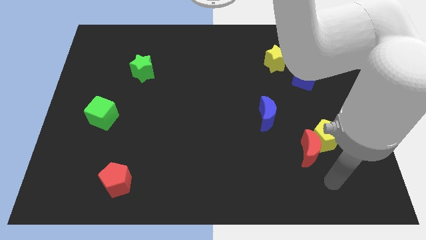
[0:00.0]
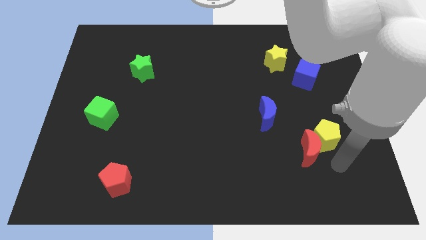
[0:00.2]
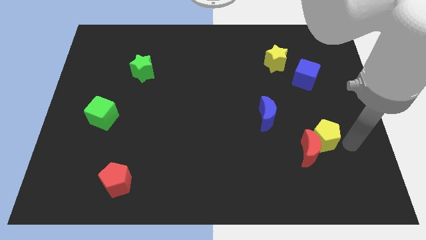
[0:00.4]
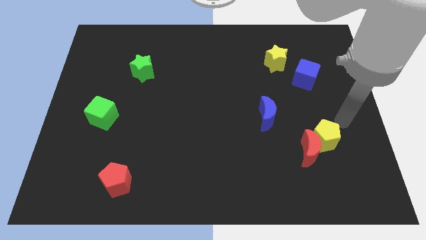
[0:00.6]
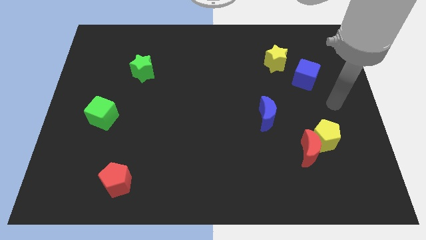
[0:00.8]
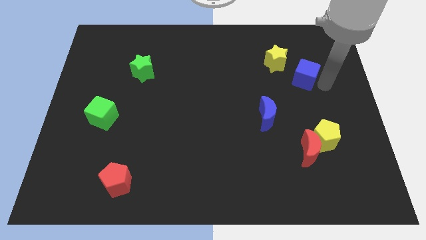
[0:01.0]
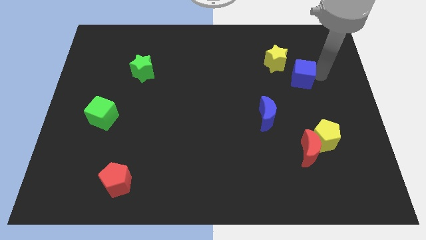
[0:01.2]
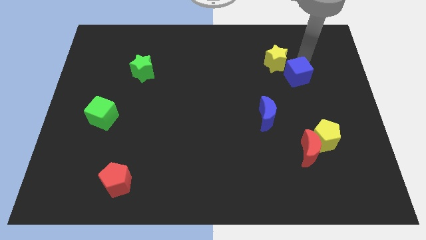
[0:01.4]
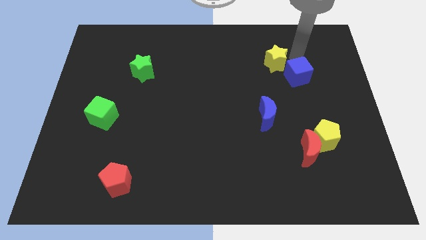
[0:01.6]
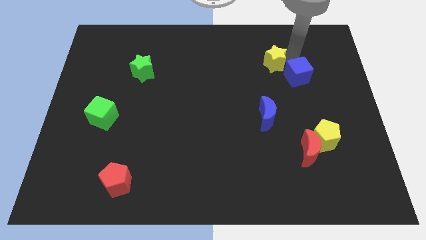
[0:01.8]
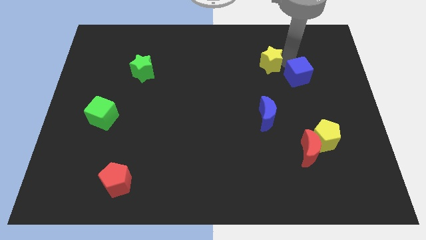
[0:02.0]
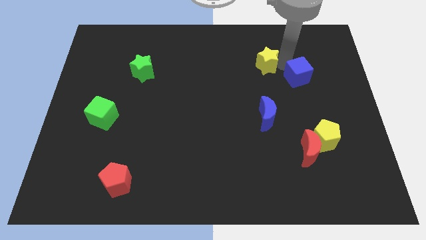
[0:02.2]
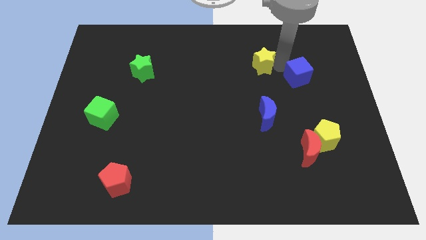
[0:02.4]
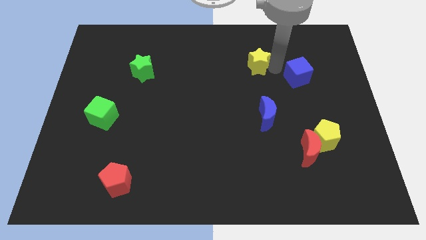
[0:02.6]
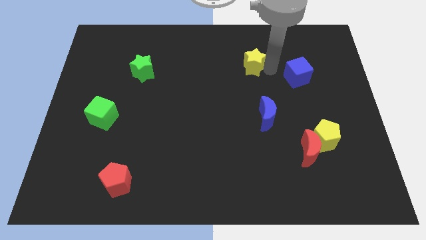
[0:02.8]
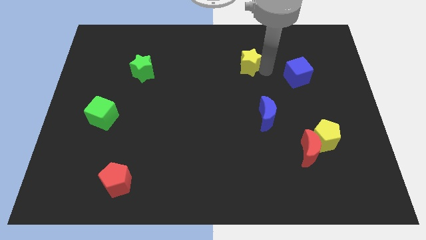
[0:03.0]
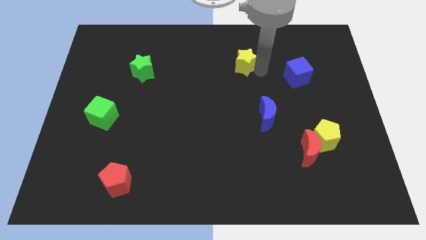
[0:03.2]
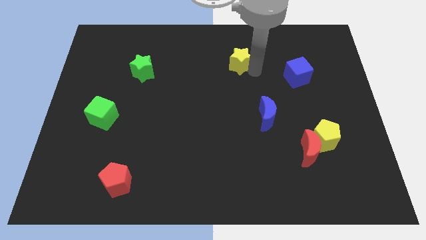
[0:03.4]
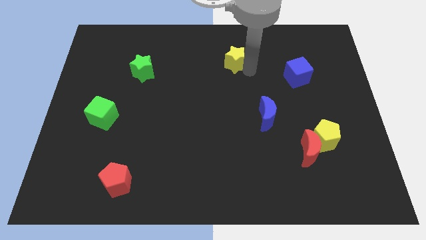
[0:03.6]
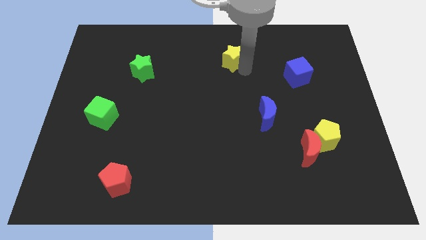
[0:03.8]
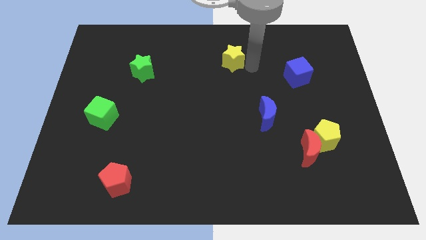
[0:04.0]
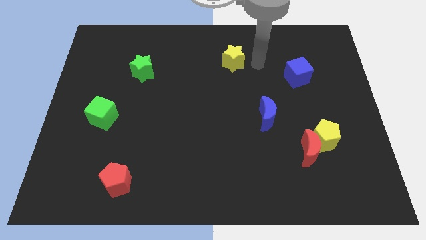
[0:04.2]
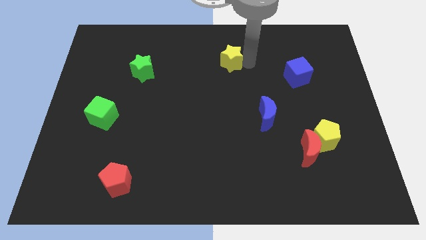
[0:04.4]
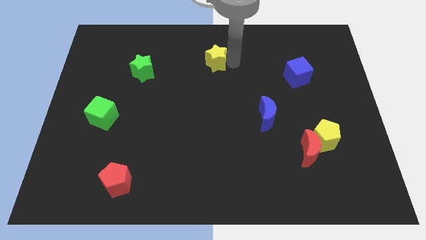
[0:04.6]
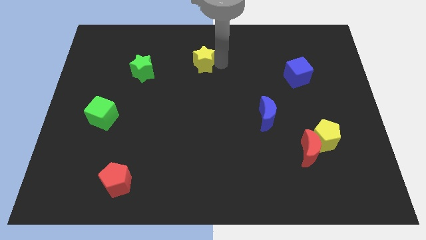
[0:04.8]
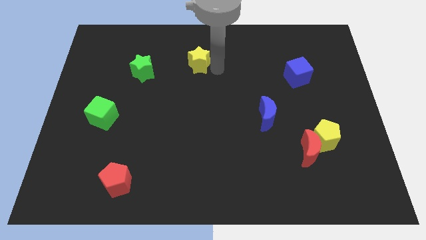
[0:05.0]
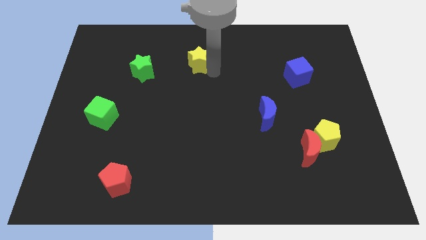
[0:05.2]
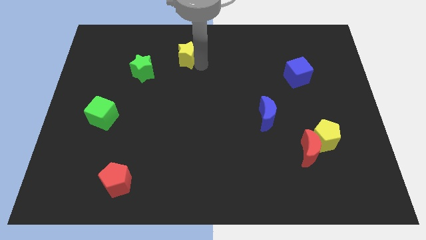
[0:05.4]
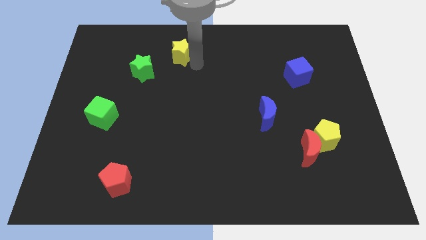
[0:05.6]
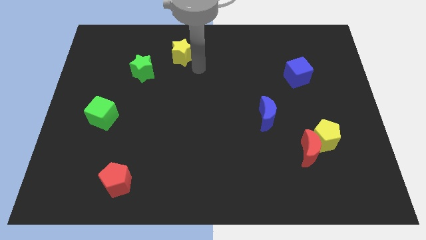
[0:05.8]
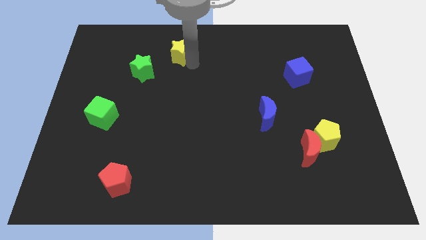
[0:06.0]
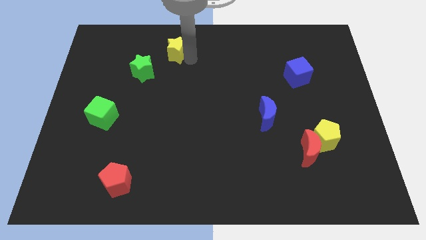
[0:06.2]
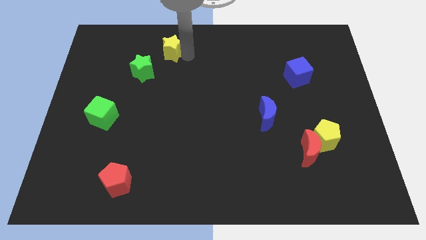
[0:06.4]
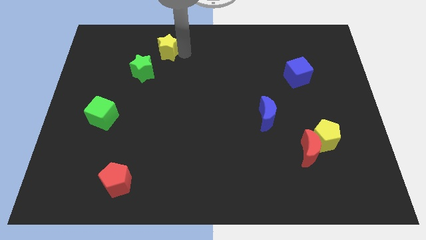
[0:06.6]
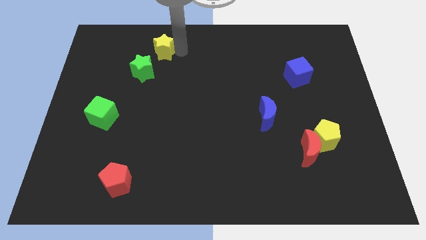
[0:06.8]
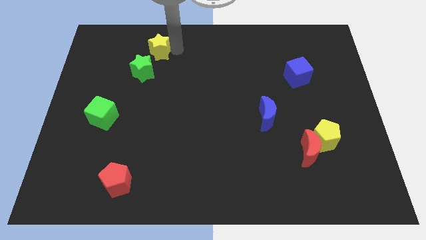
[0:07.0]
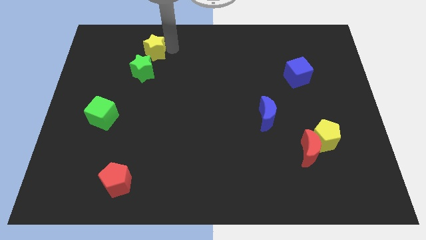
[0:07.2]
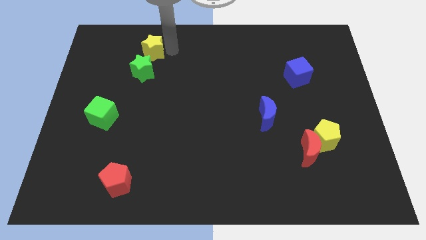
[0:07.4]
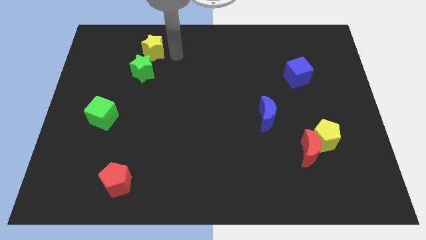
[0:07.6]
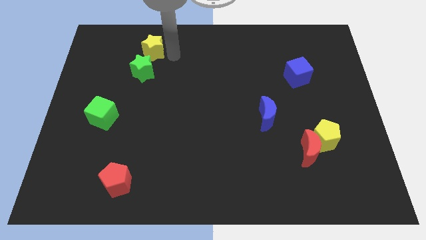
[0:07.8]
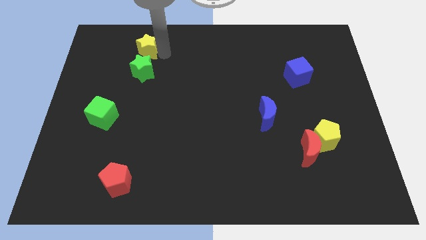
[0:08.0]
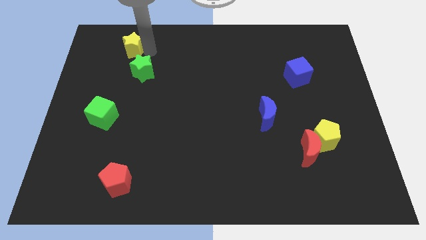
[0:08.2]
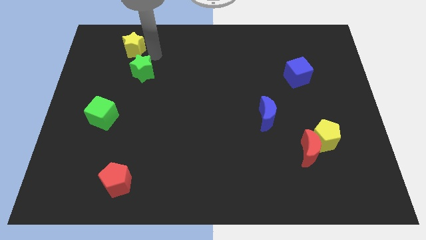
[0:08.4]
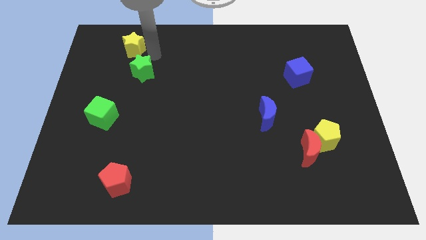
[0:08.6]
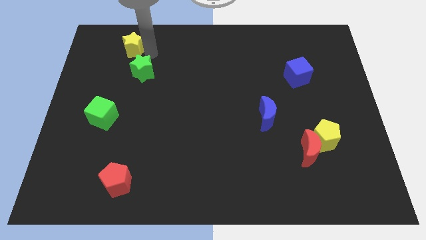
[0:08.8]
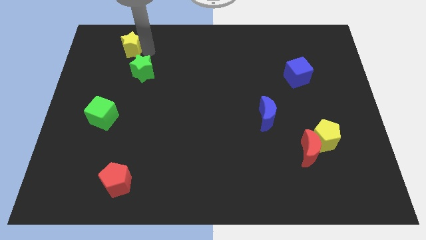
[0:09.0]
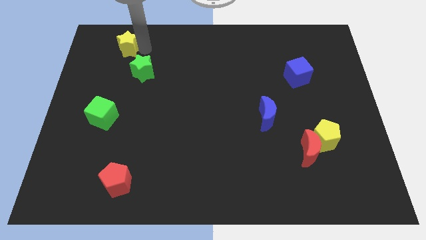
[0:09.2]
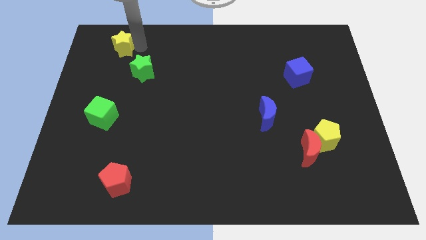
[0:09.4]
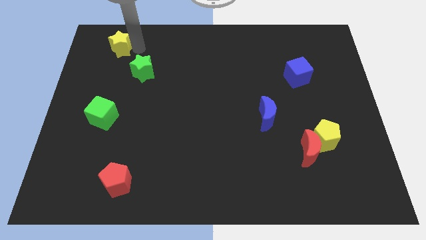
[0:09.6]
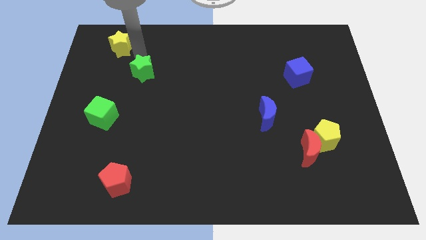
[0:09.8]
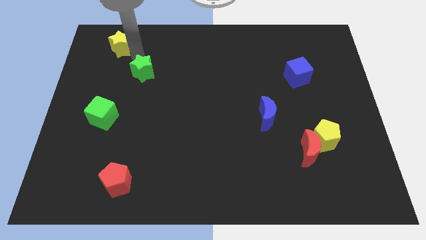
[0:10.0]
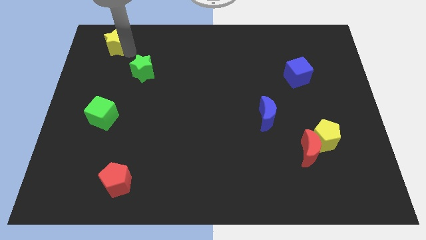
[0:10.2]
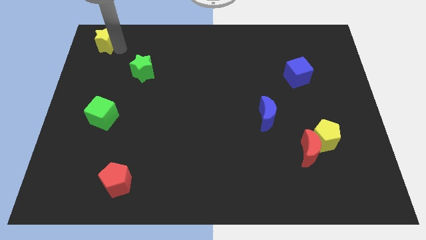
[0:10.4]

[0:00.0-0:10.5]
slide the yellow star to the upper left corner

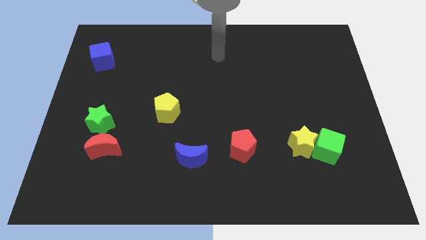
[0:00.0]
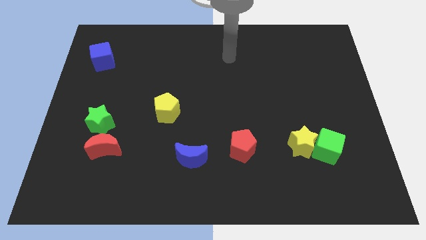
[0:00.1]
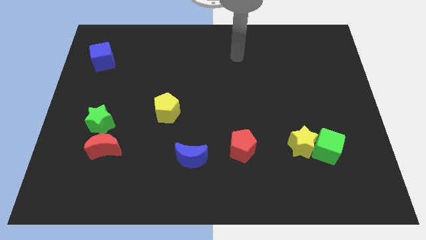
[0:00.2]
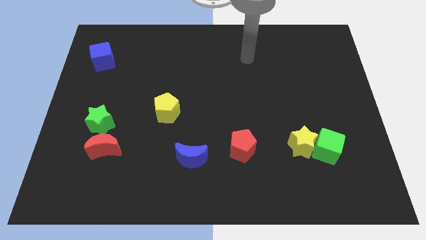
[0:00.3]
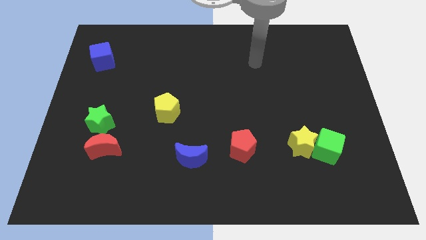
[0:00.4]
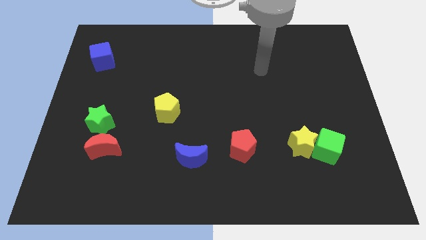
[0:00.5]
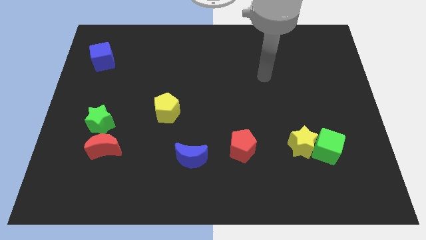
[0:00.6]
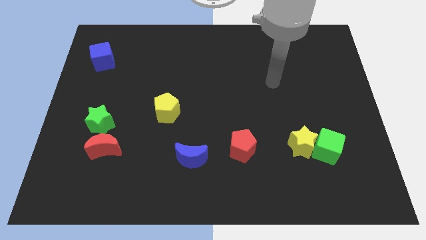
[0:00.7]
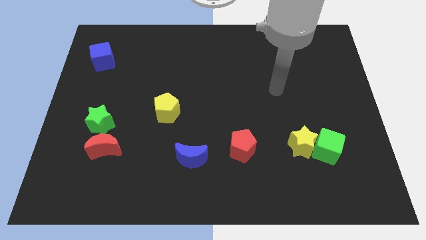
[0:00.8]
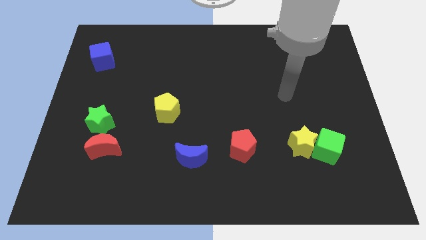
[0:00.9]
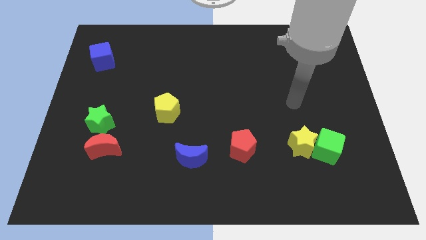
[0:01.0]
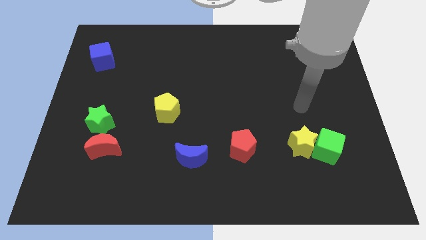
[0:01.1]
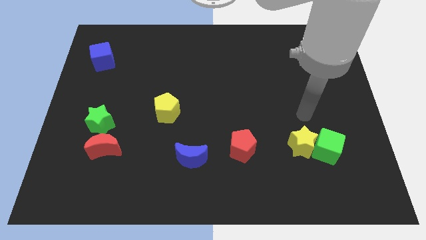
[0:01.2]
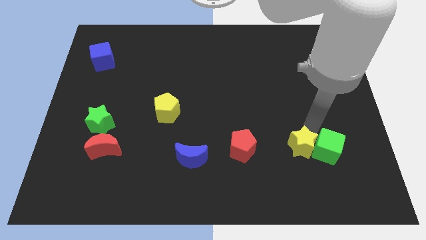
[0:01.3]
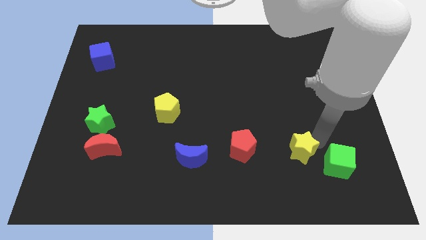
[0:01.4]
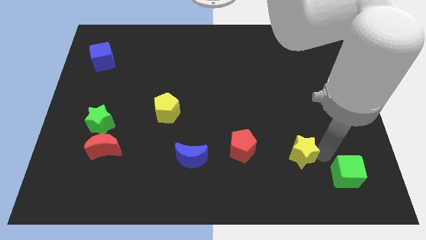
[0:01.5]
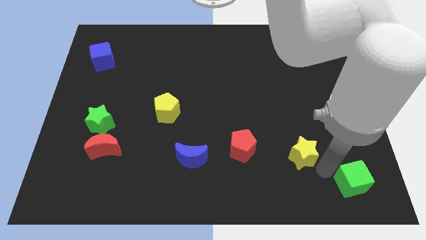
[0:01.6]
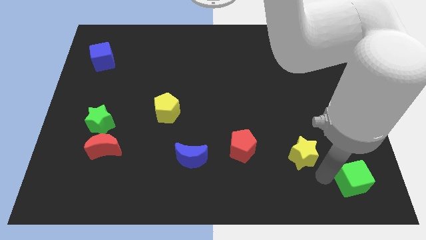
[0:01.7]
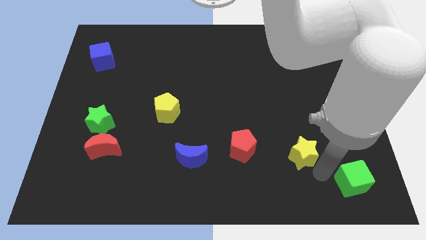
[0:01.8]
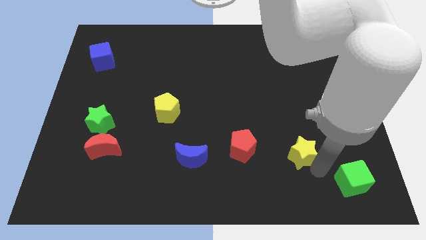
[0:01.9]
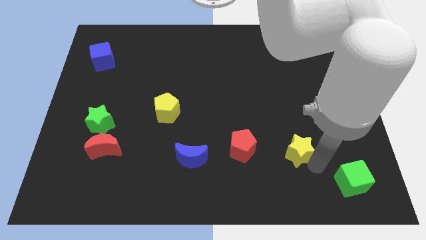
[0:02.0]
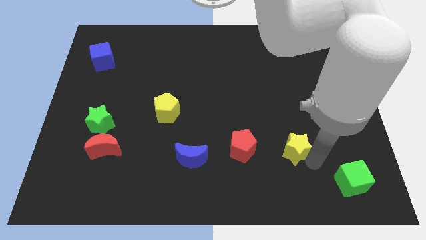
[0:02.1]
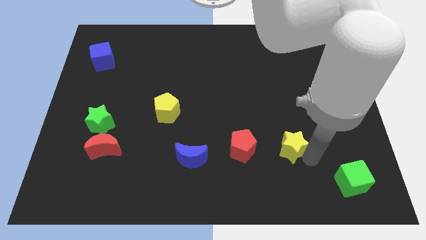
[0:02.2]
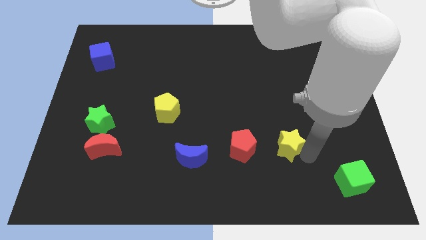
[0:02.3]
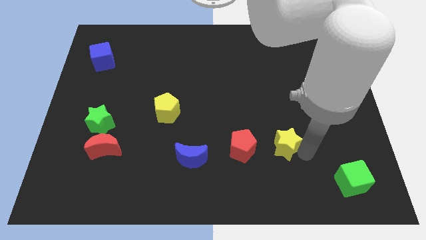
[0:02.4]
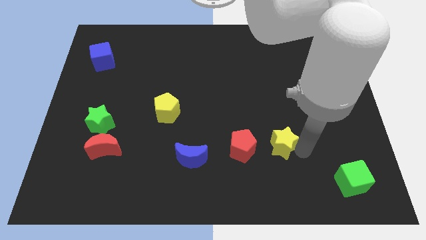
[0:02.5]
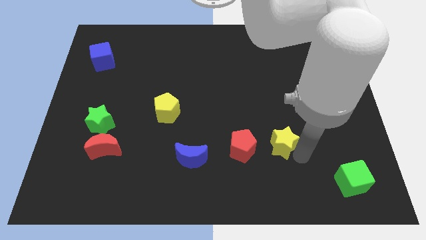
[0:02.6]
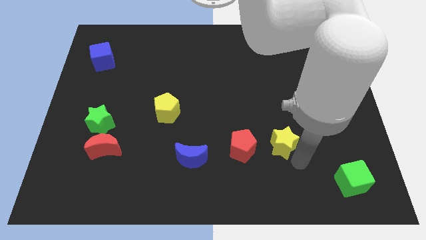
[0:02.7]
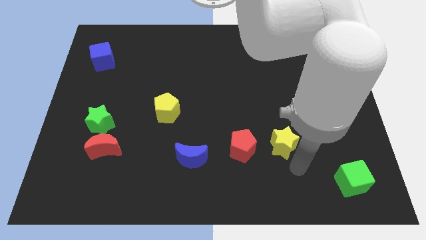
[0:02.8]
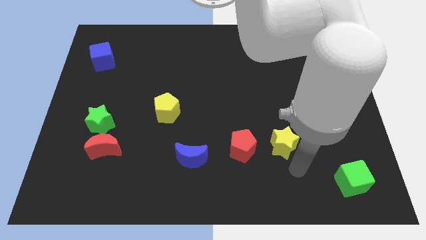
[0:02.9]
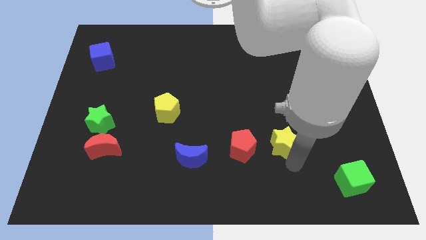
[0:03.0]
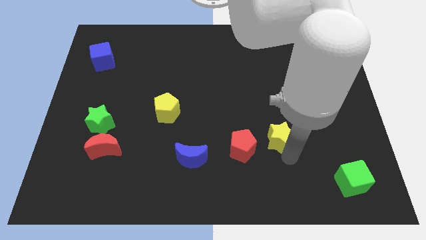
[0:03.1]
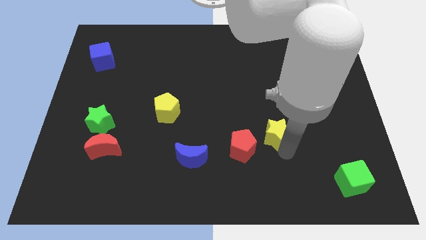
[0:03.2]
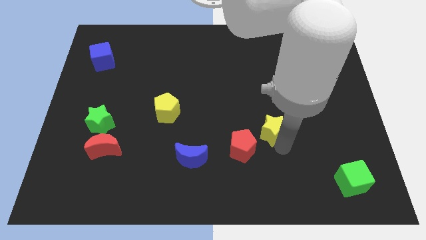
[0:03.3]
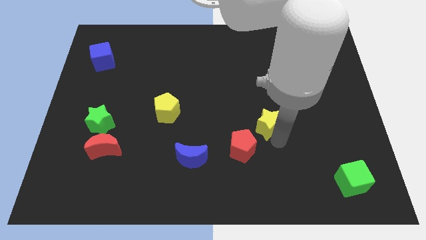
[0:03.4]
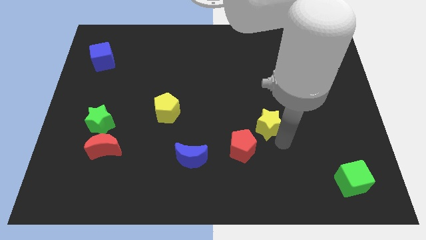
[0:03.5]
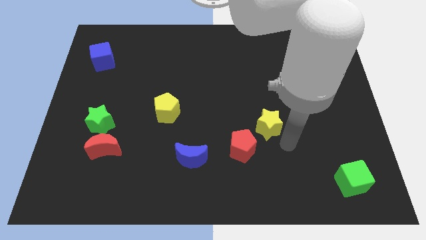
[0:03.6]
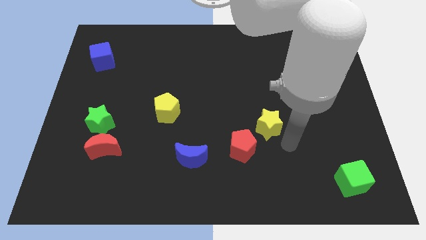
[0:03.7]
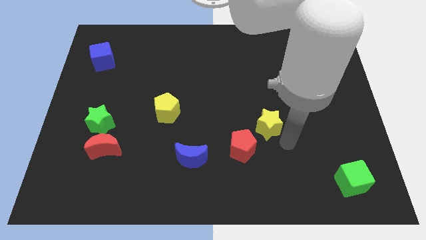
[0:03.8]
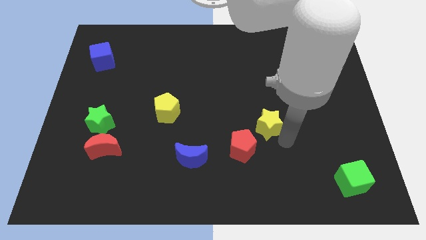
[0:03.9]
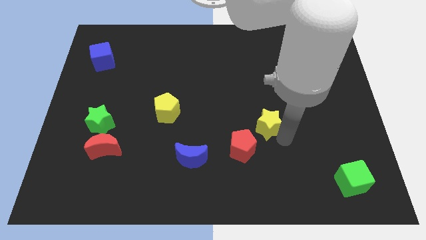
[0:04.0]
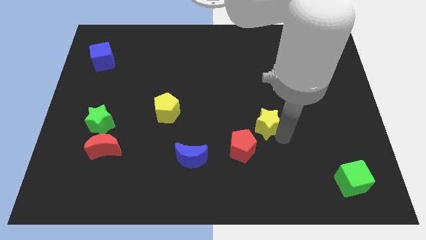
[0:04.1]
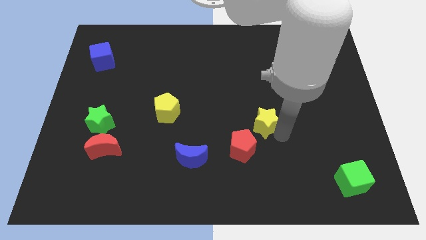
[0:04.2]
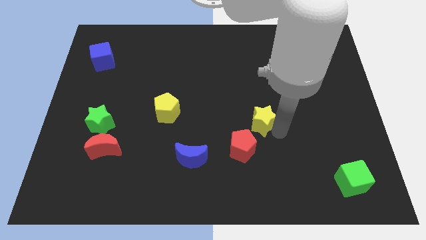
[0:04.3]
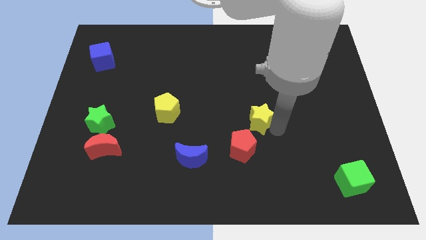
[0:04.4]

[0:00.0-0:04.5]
move the yellow star to the middle
